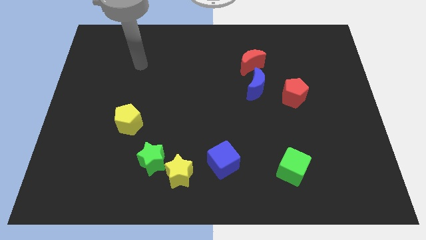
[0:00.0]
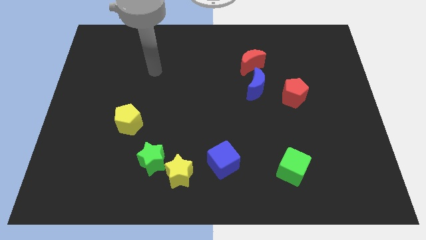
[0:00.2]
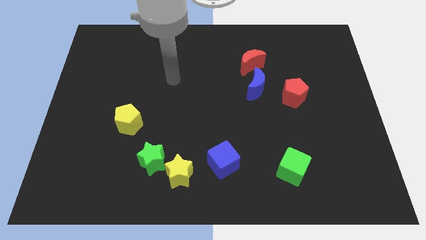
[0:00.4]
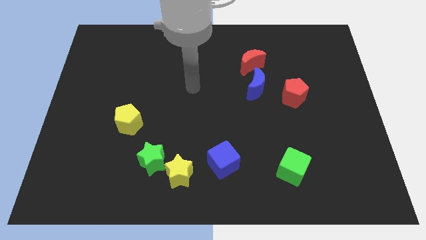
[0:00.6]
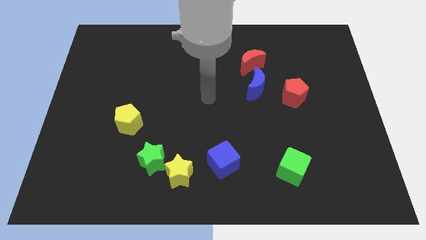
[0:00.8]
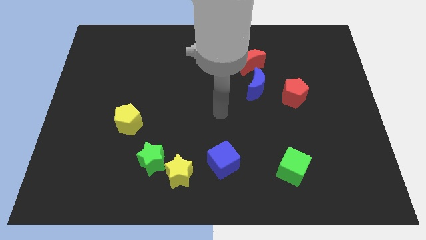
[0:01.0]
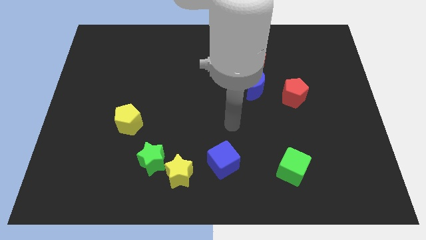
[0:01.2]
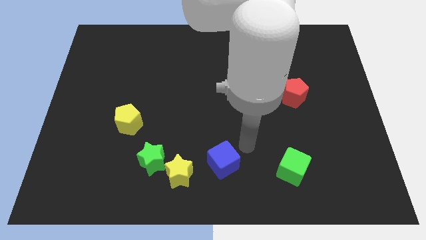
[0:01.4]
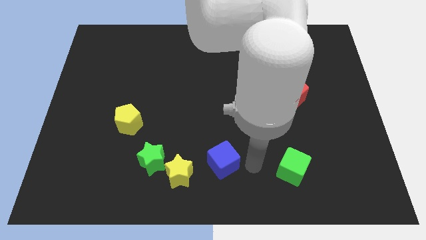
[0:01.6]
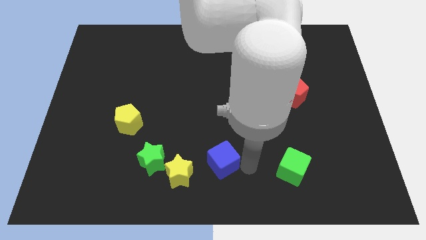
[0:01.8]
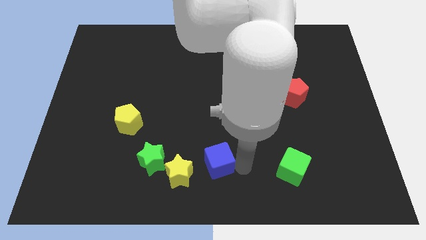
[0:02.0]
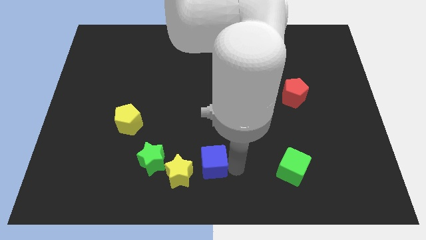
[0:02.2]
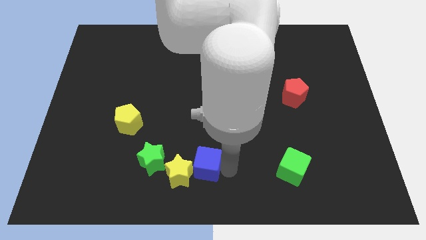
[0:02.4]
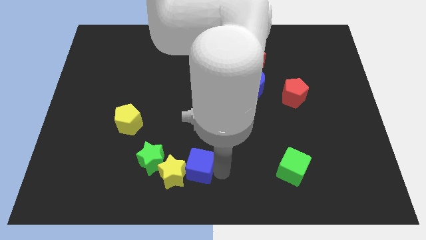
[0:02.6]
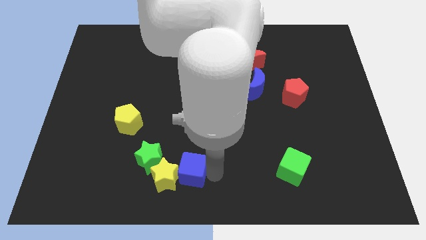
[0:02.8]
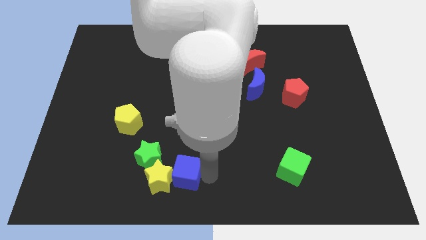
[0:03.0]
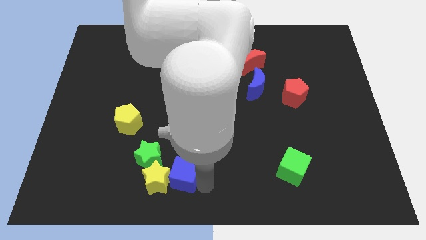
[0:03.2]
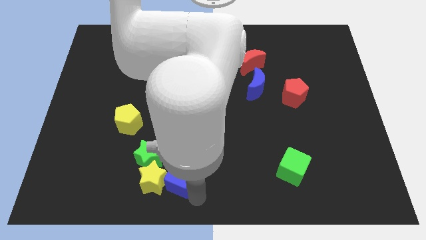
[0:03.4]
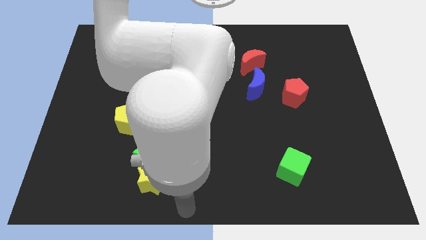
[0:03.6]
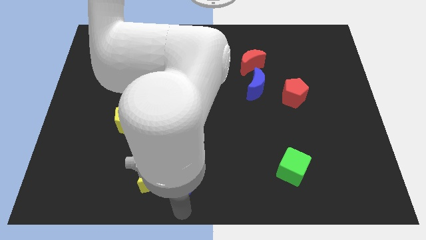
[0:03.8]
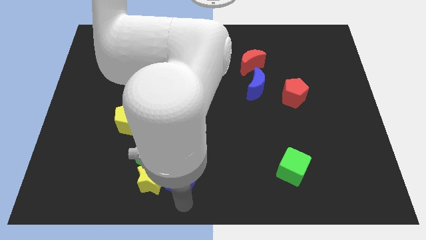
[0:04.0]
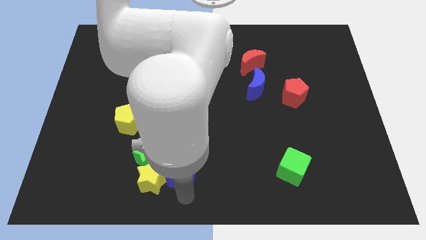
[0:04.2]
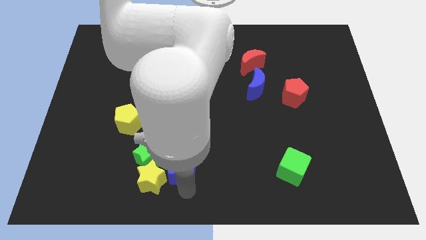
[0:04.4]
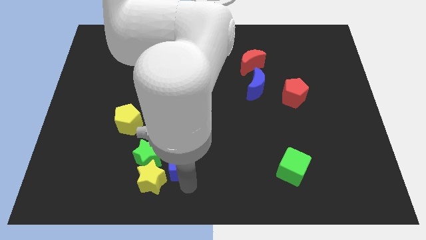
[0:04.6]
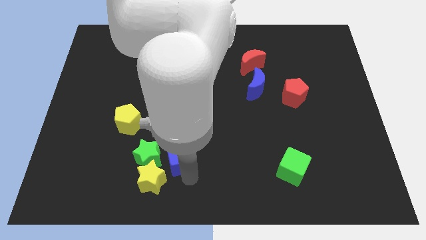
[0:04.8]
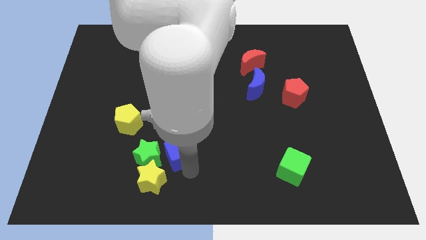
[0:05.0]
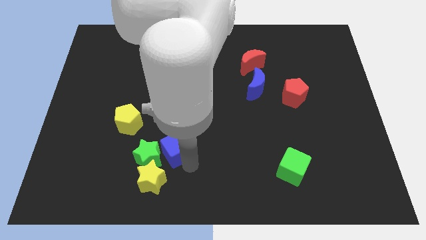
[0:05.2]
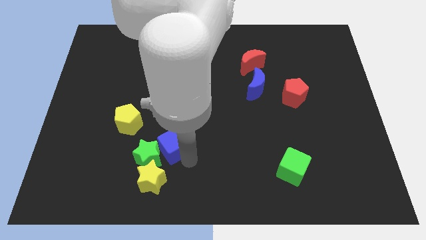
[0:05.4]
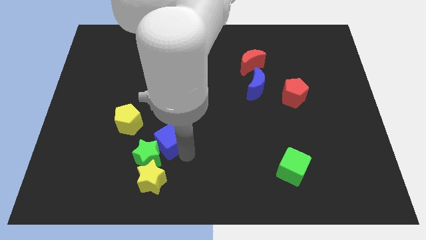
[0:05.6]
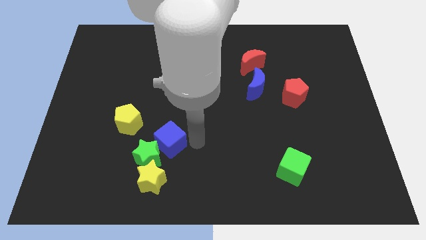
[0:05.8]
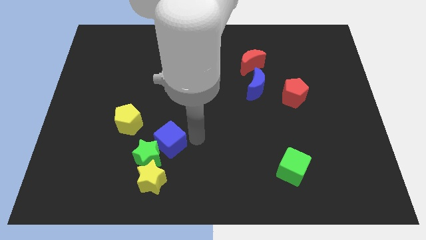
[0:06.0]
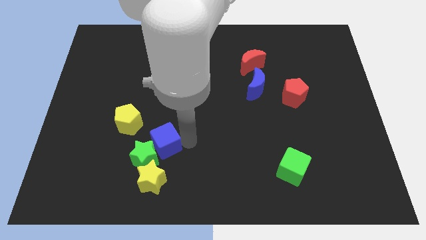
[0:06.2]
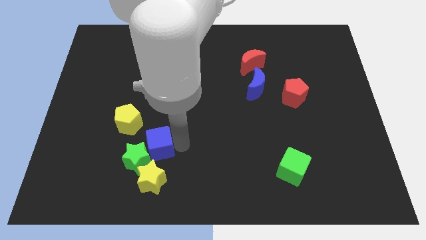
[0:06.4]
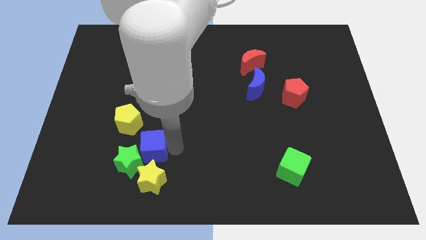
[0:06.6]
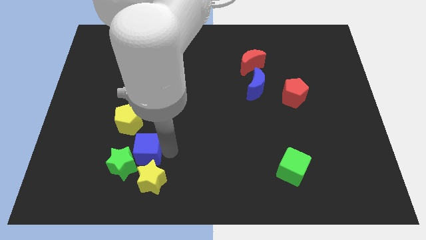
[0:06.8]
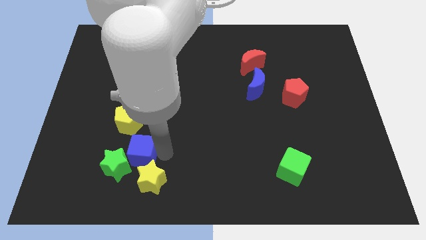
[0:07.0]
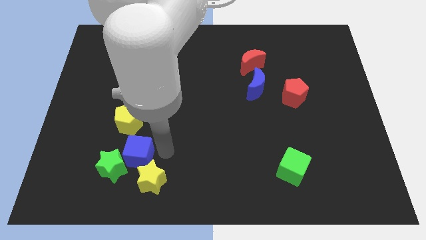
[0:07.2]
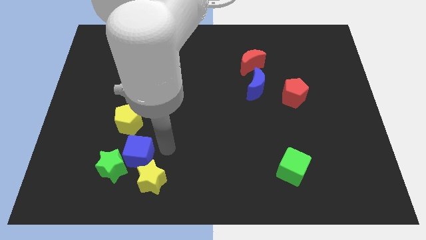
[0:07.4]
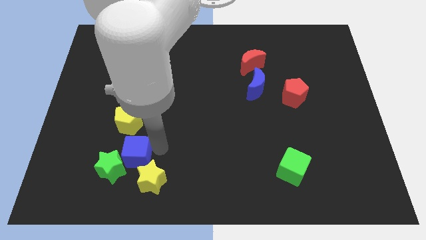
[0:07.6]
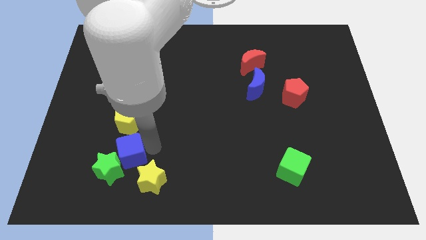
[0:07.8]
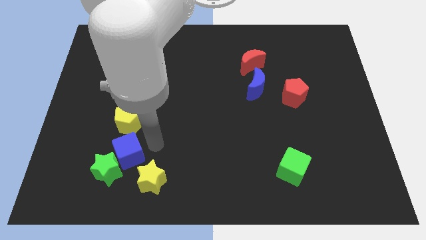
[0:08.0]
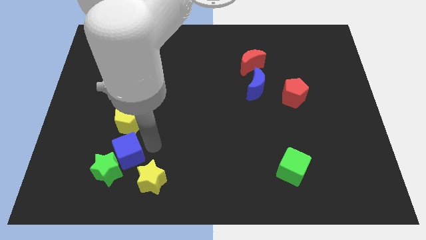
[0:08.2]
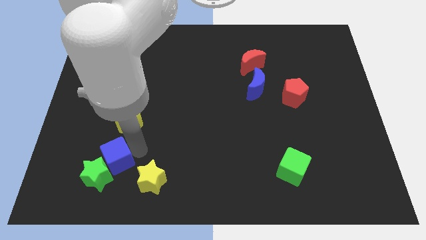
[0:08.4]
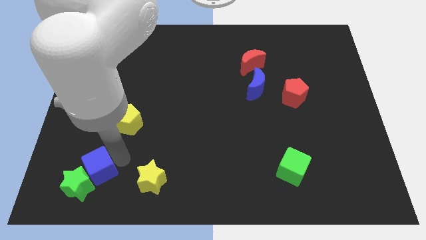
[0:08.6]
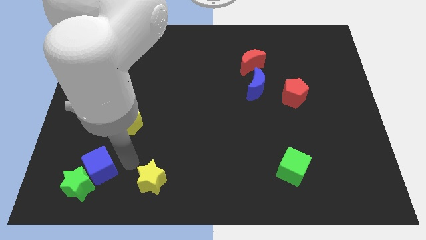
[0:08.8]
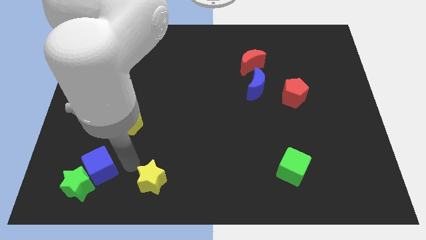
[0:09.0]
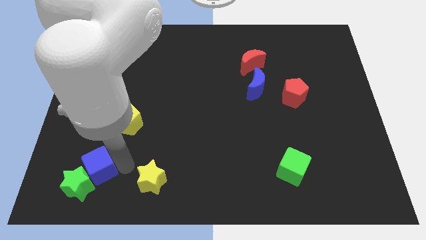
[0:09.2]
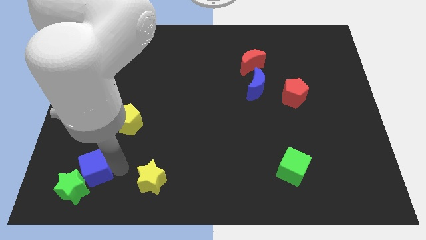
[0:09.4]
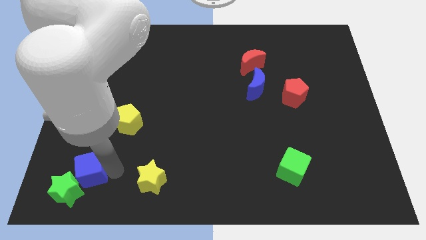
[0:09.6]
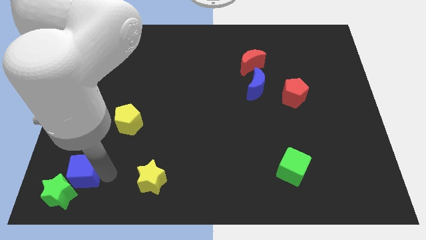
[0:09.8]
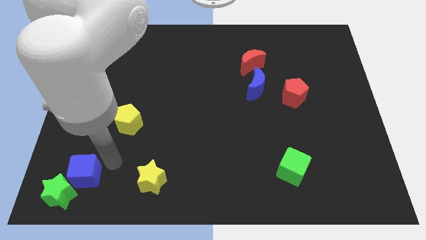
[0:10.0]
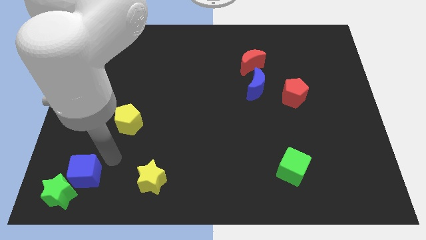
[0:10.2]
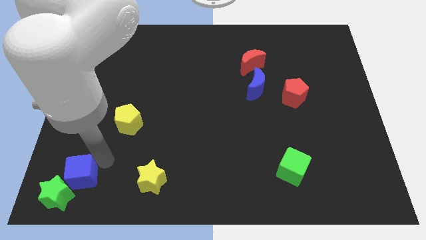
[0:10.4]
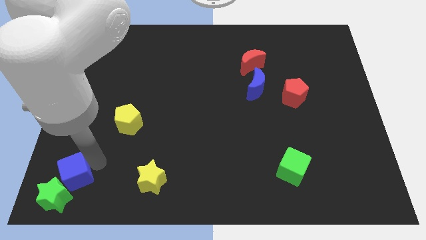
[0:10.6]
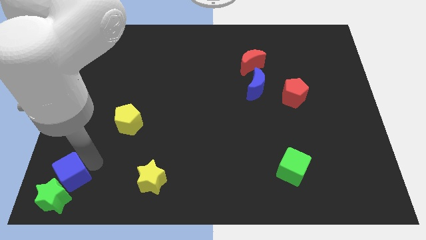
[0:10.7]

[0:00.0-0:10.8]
slide the blue cube to the bottom left of the board

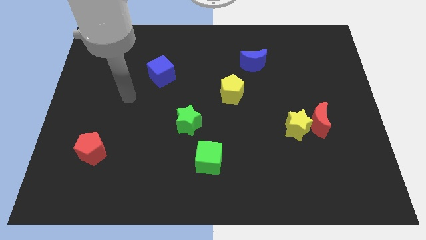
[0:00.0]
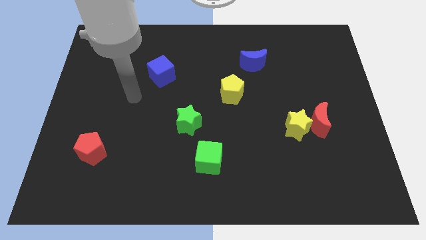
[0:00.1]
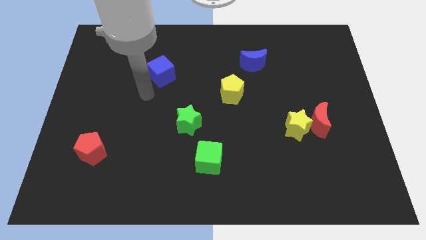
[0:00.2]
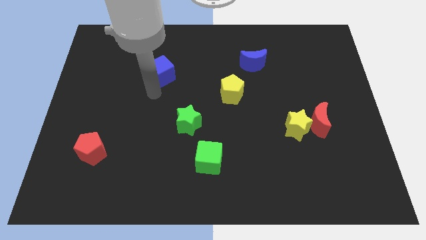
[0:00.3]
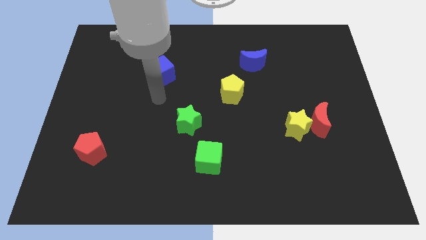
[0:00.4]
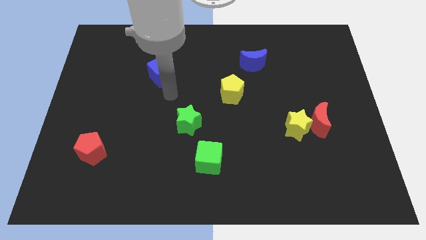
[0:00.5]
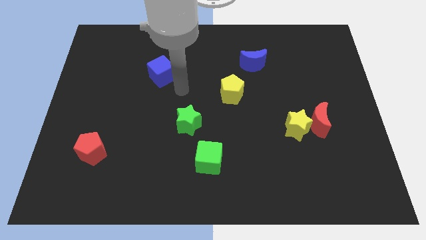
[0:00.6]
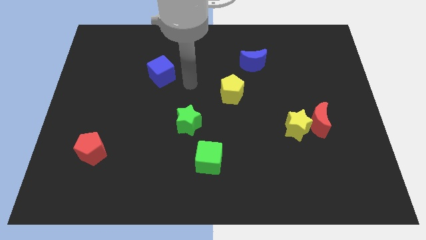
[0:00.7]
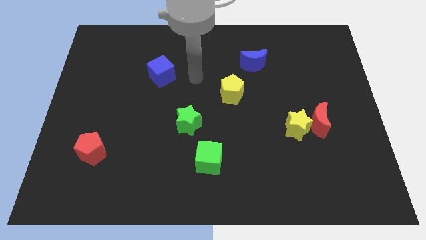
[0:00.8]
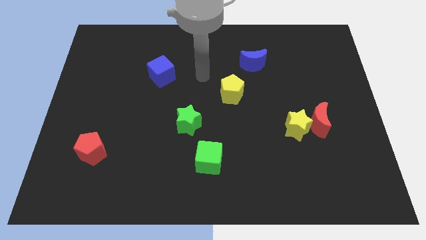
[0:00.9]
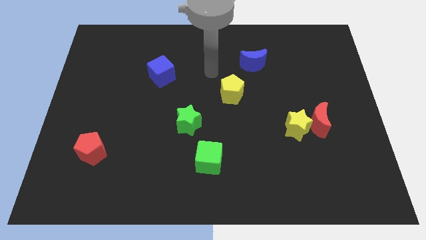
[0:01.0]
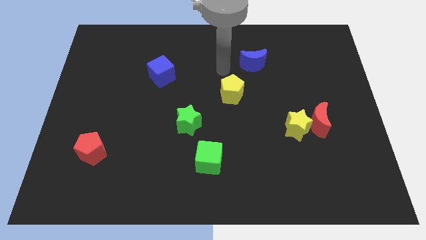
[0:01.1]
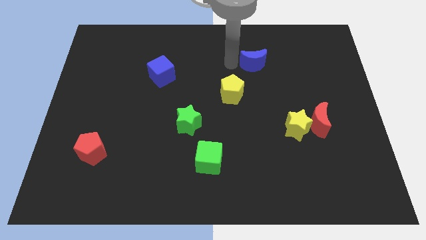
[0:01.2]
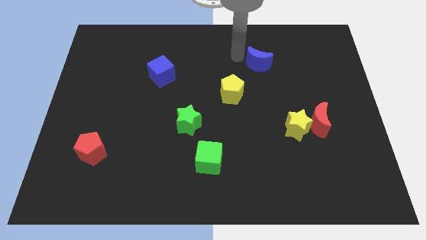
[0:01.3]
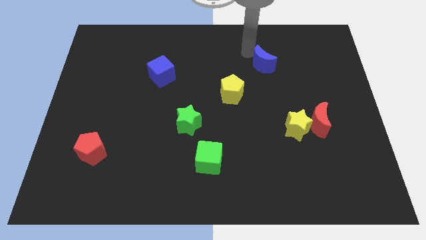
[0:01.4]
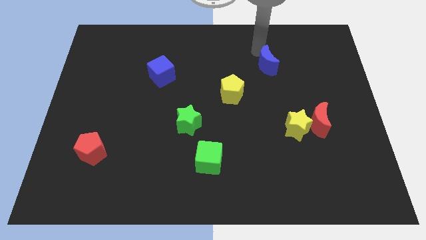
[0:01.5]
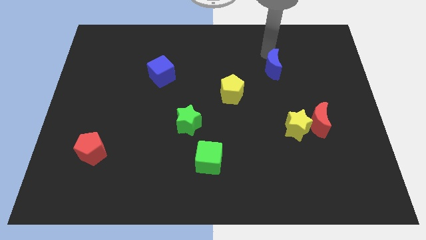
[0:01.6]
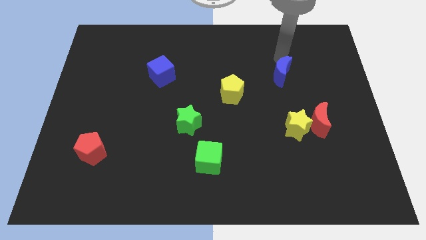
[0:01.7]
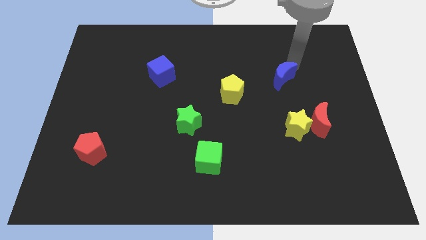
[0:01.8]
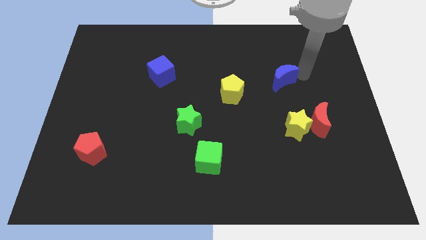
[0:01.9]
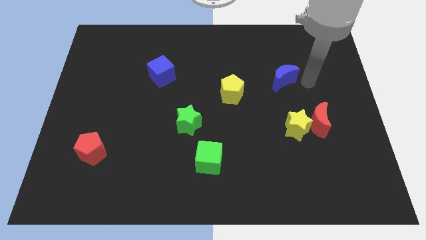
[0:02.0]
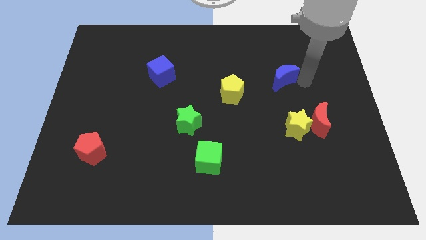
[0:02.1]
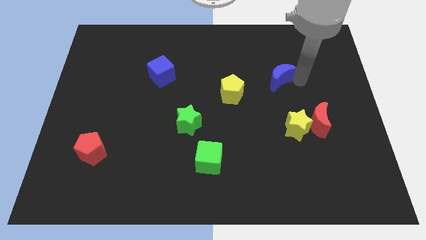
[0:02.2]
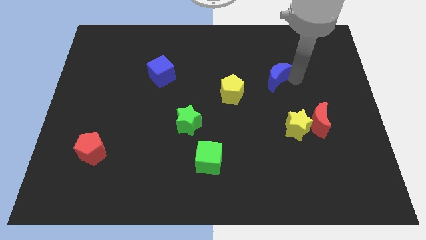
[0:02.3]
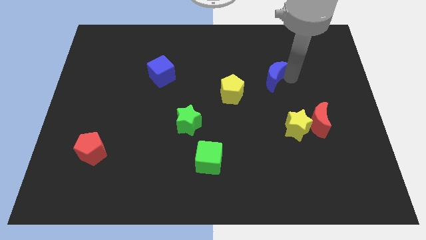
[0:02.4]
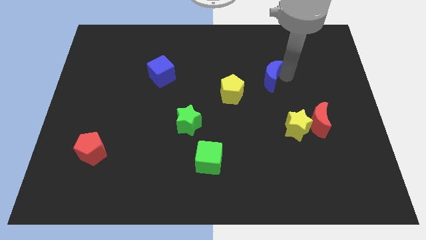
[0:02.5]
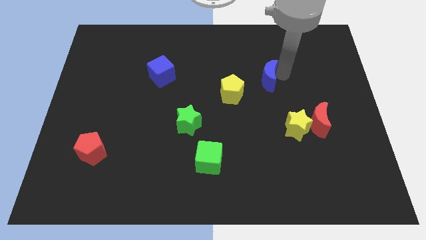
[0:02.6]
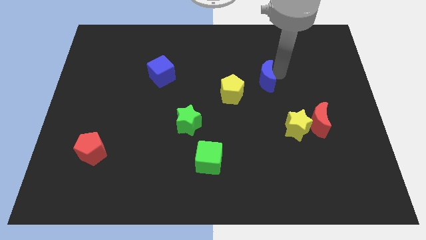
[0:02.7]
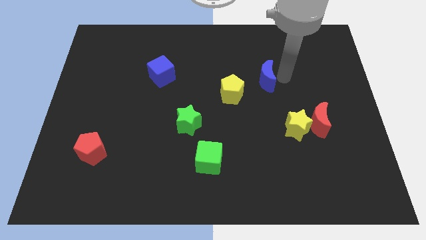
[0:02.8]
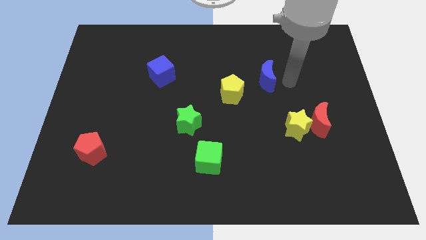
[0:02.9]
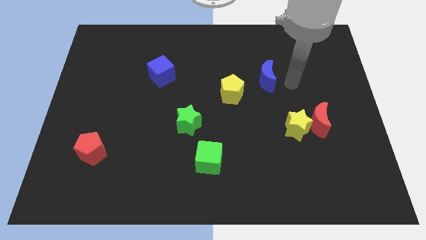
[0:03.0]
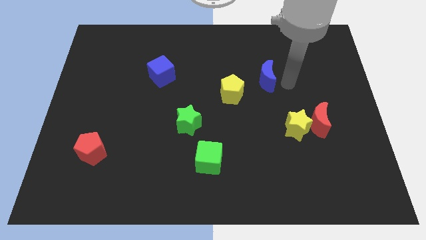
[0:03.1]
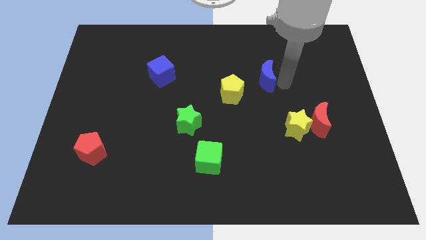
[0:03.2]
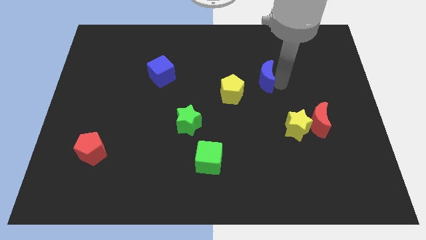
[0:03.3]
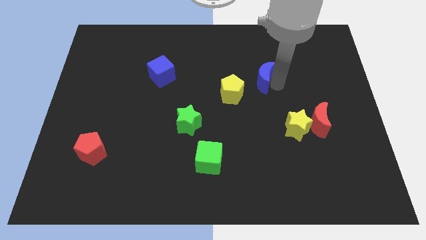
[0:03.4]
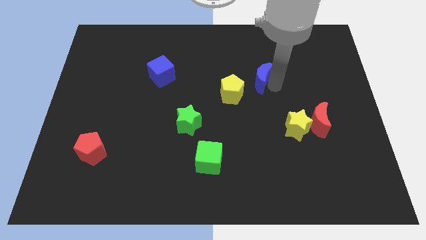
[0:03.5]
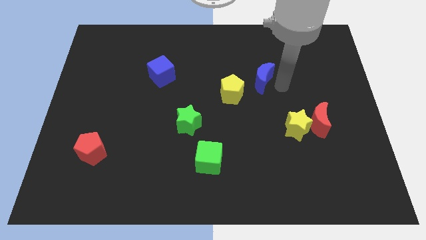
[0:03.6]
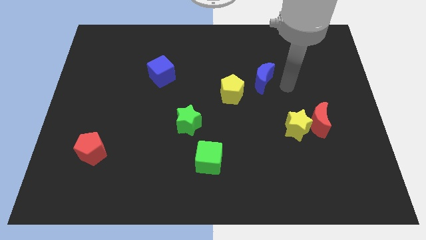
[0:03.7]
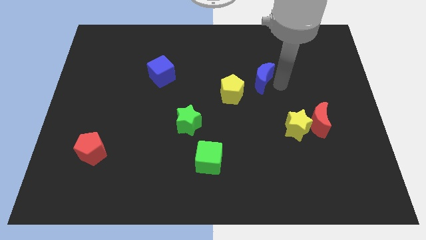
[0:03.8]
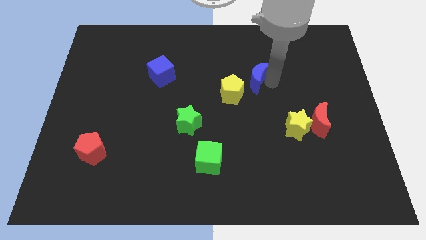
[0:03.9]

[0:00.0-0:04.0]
move the blue moon to the middle
